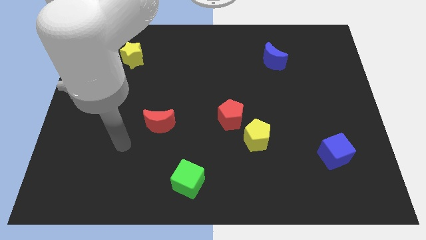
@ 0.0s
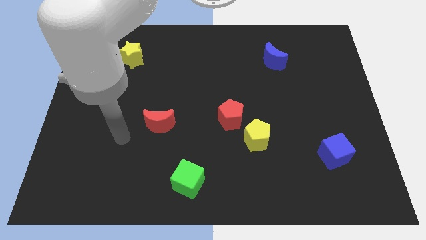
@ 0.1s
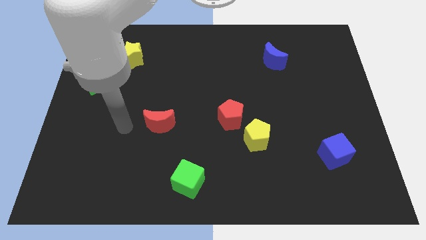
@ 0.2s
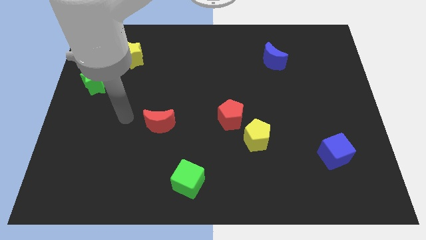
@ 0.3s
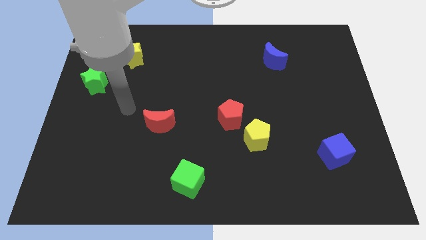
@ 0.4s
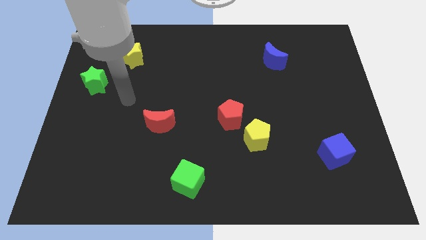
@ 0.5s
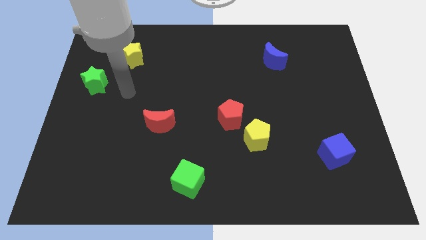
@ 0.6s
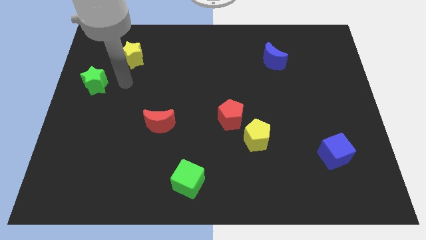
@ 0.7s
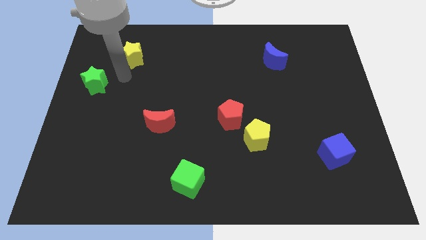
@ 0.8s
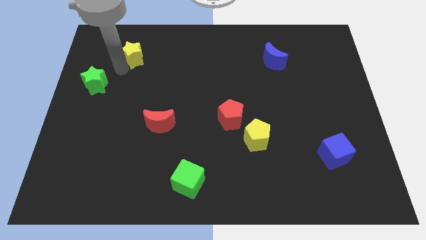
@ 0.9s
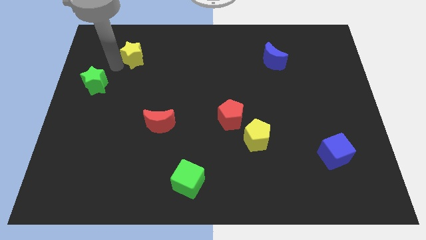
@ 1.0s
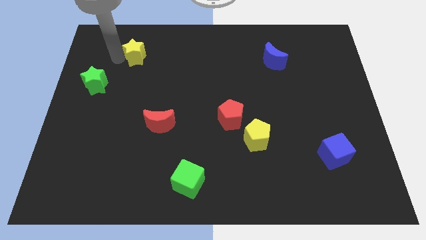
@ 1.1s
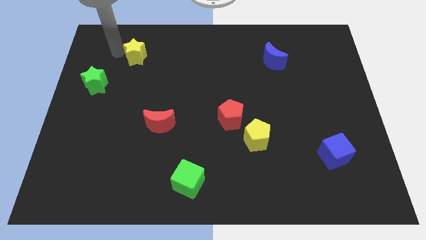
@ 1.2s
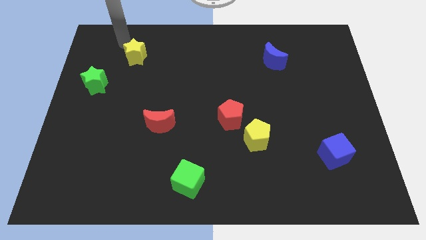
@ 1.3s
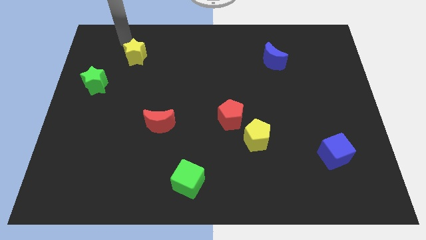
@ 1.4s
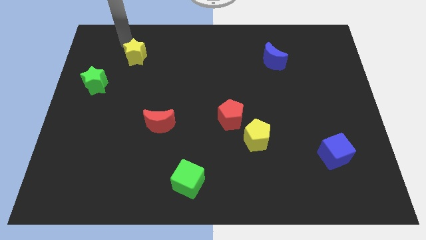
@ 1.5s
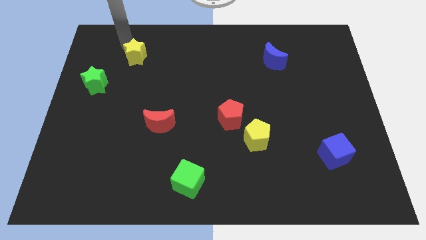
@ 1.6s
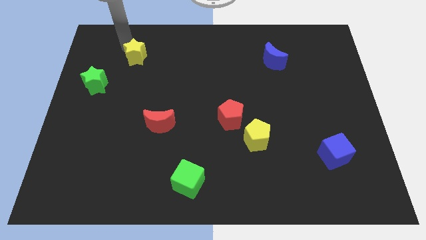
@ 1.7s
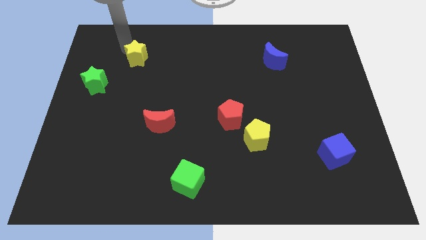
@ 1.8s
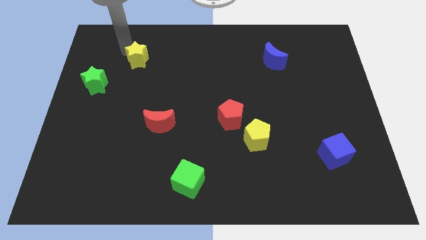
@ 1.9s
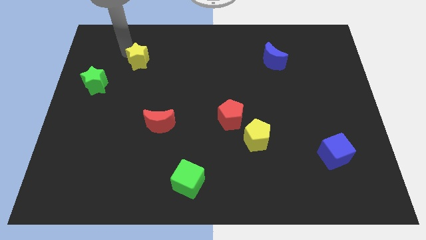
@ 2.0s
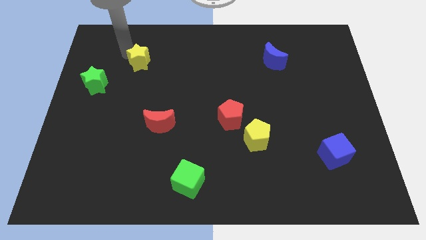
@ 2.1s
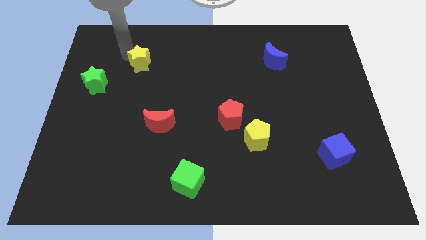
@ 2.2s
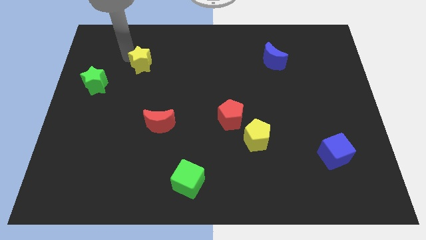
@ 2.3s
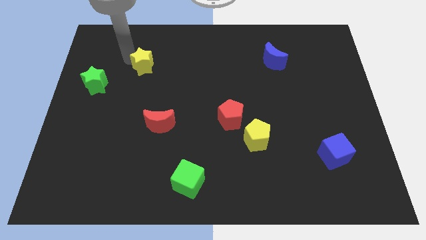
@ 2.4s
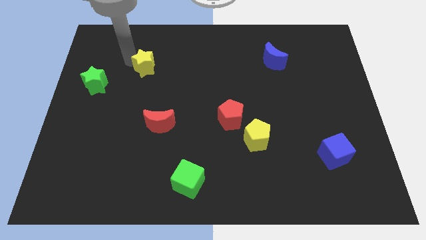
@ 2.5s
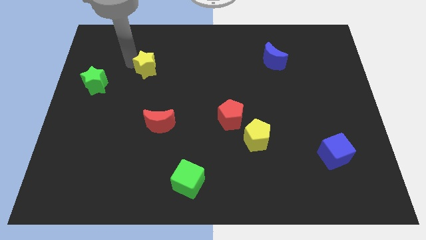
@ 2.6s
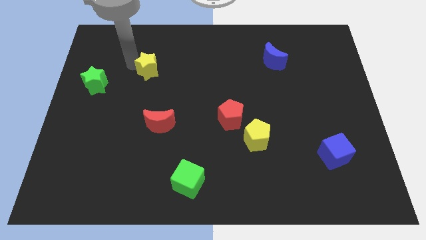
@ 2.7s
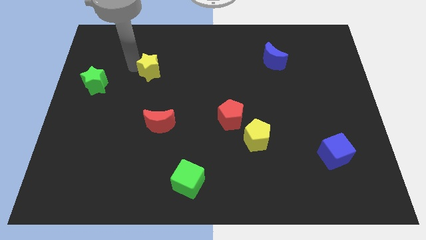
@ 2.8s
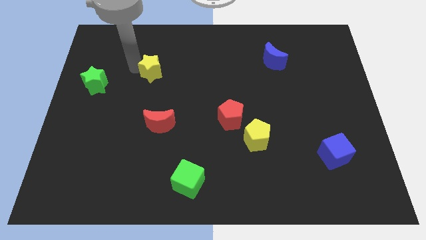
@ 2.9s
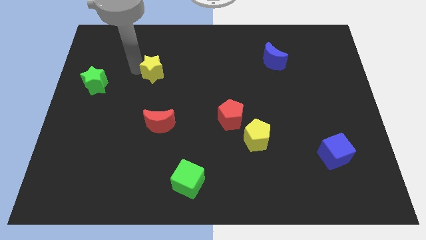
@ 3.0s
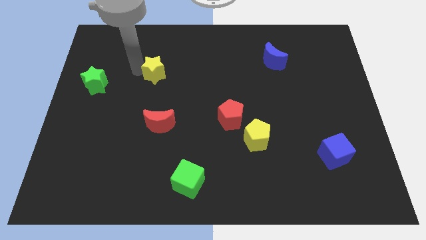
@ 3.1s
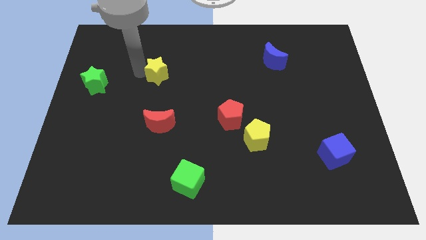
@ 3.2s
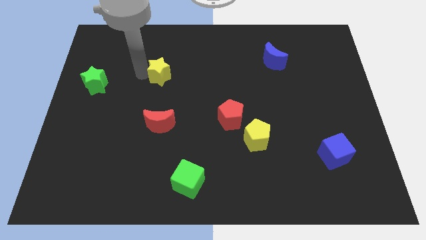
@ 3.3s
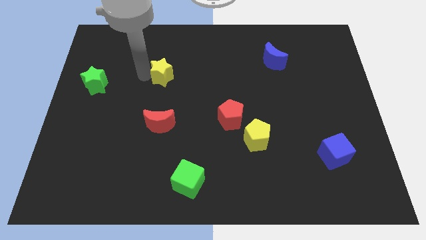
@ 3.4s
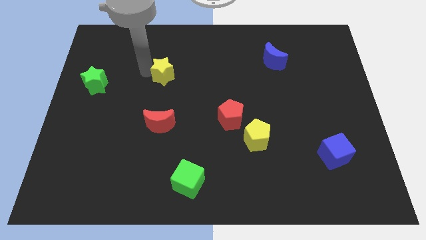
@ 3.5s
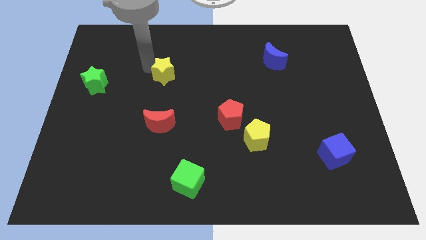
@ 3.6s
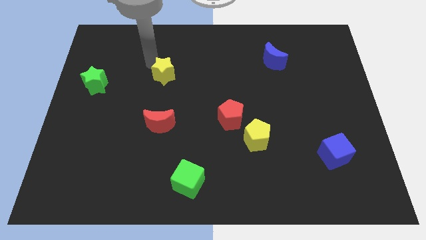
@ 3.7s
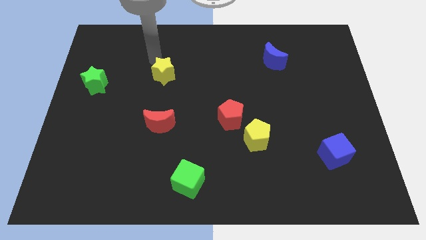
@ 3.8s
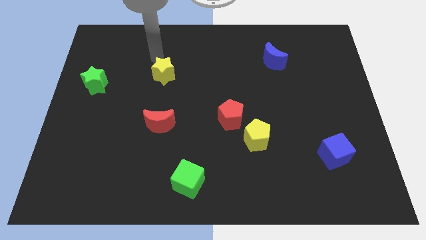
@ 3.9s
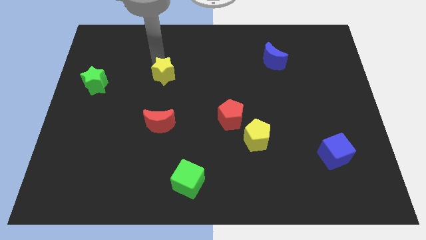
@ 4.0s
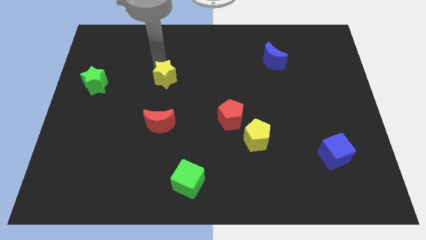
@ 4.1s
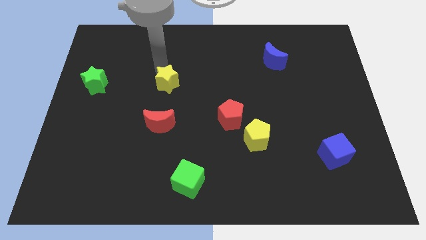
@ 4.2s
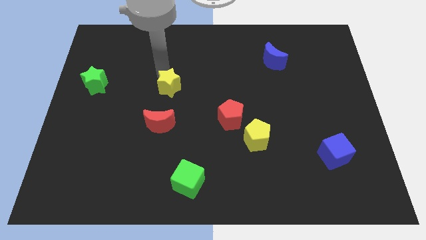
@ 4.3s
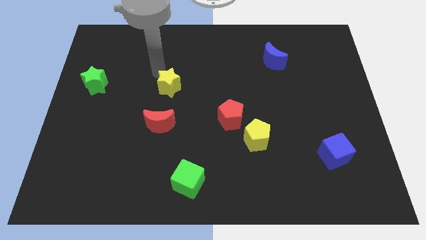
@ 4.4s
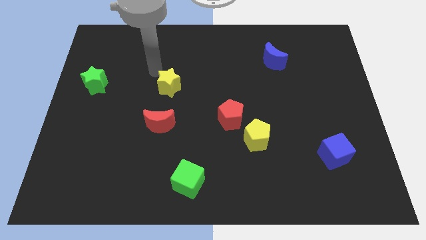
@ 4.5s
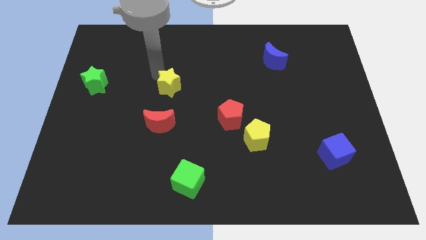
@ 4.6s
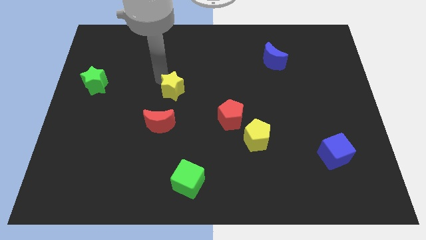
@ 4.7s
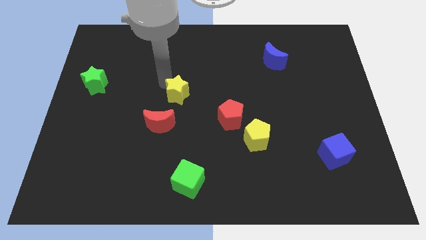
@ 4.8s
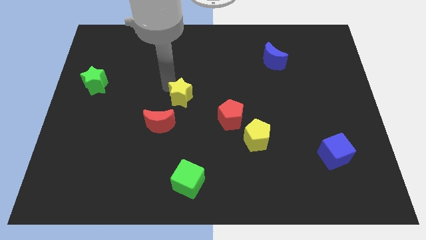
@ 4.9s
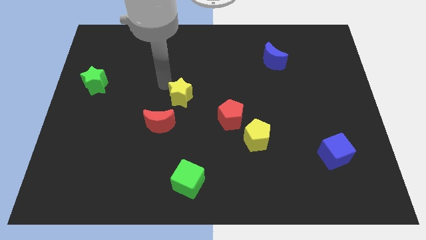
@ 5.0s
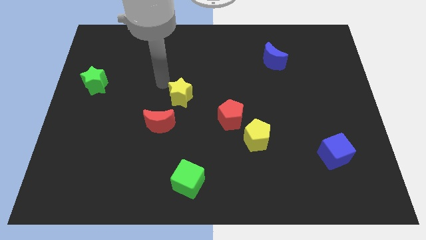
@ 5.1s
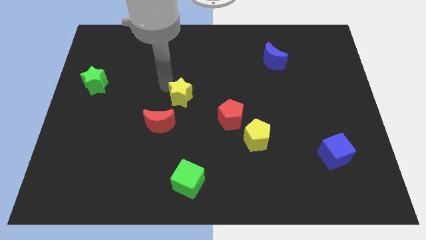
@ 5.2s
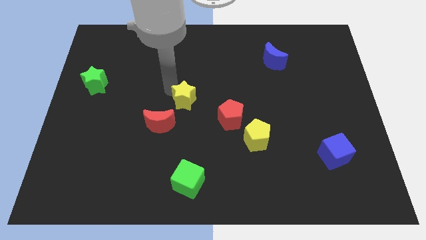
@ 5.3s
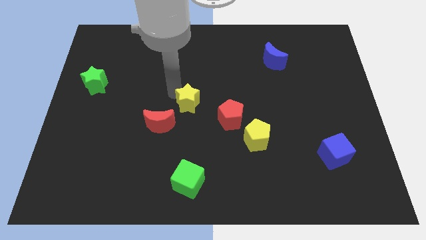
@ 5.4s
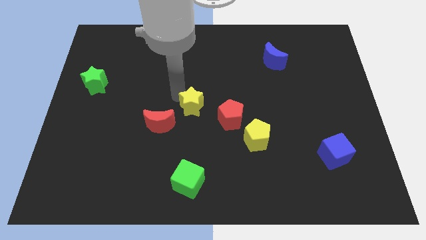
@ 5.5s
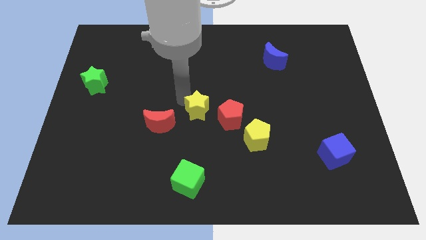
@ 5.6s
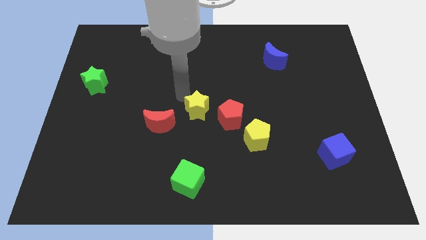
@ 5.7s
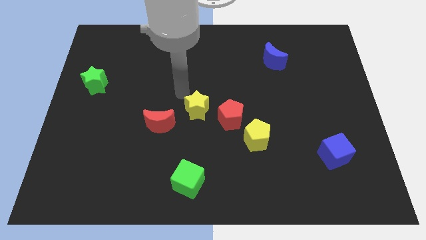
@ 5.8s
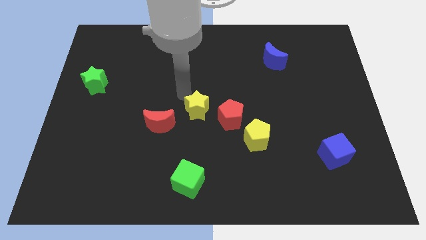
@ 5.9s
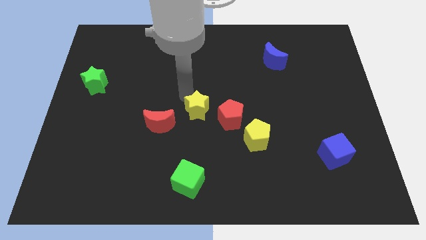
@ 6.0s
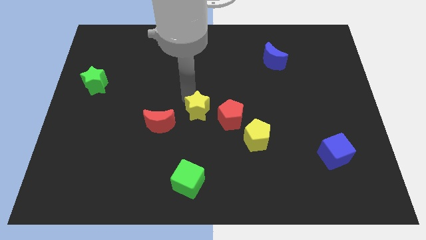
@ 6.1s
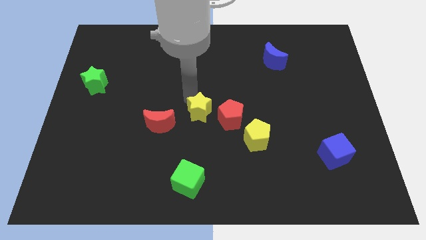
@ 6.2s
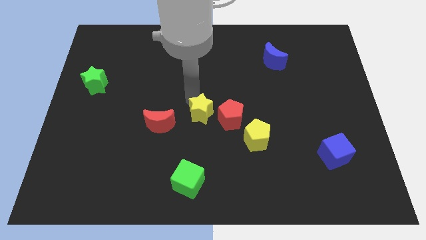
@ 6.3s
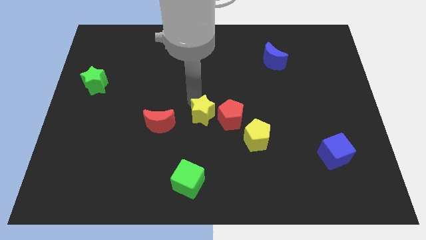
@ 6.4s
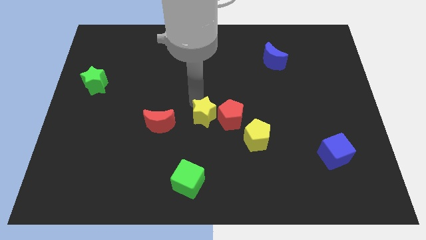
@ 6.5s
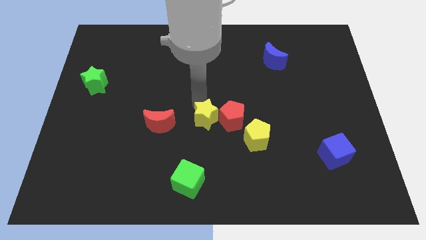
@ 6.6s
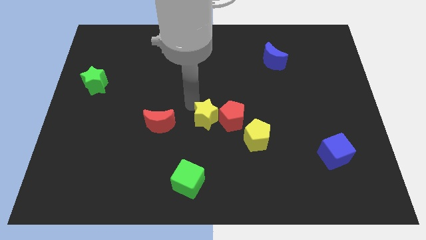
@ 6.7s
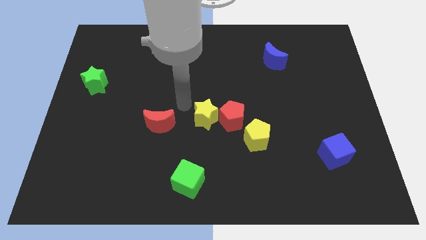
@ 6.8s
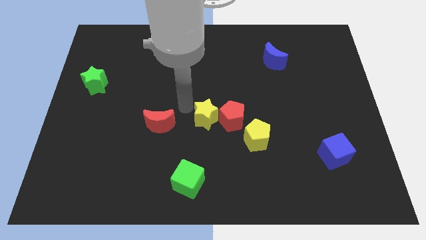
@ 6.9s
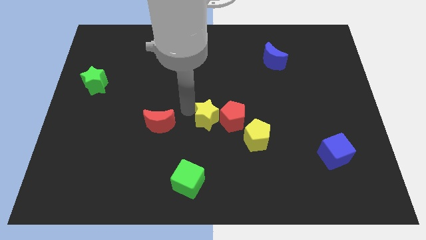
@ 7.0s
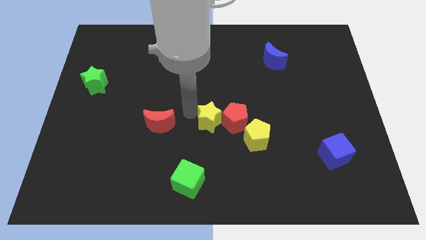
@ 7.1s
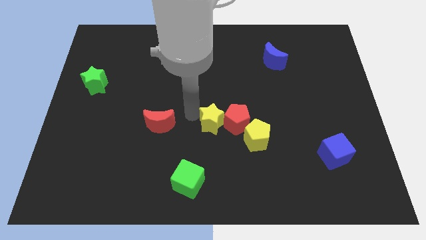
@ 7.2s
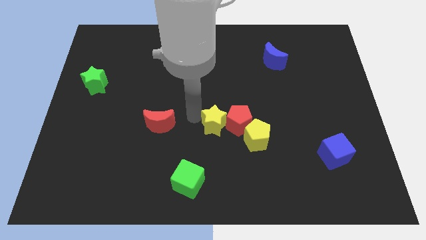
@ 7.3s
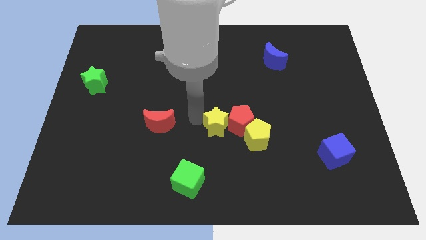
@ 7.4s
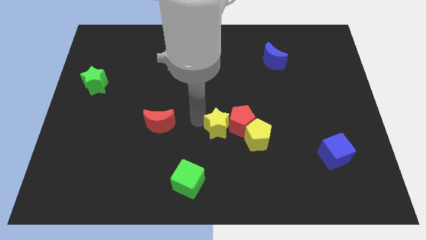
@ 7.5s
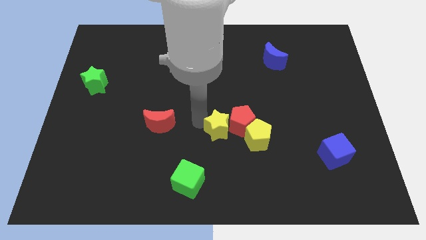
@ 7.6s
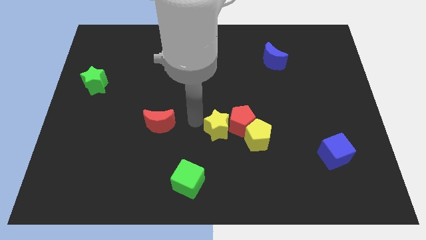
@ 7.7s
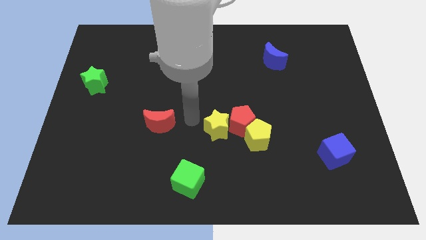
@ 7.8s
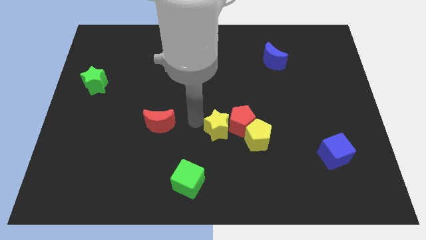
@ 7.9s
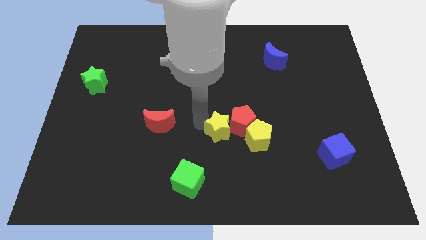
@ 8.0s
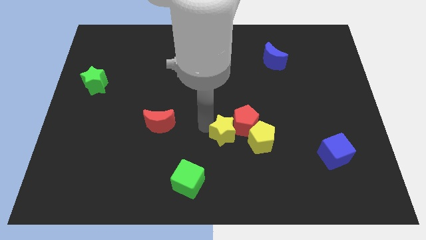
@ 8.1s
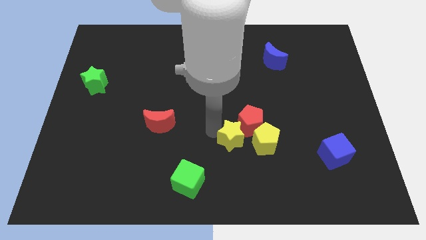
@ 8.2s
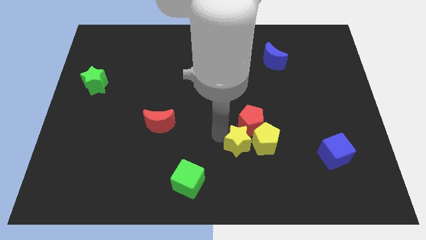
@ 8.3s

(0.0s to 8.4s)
slide the yellow star towards the yellow pentagon
